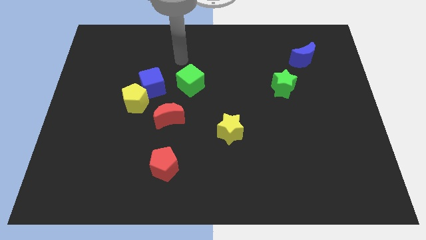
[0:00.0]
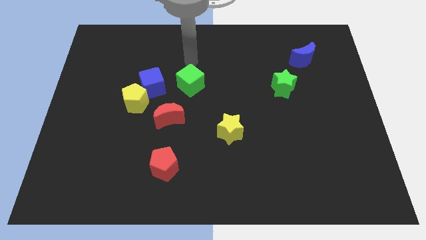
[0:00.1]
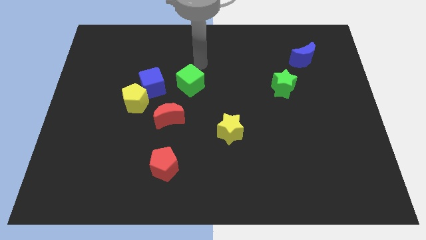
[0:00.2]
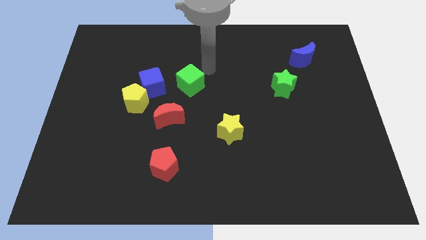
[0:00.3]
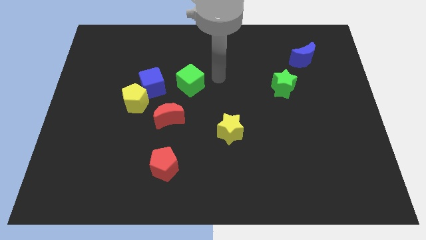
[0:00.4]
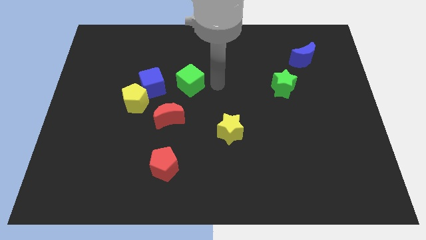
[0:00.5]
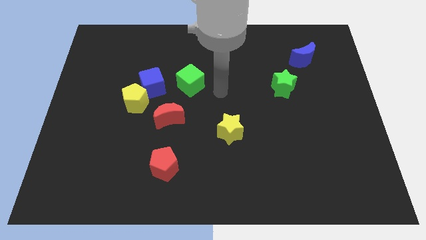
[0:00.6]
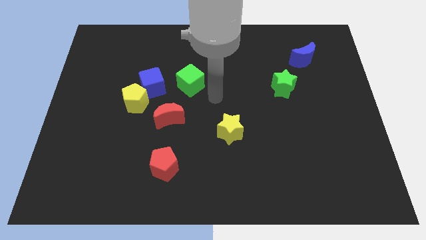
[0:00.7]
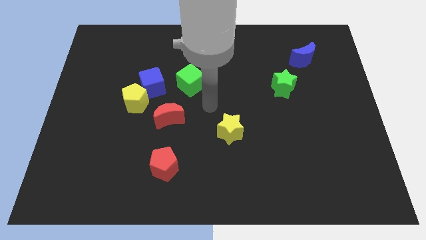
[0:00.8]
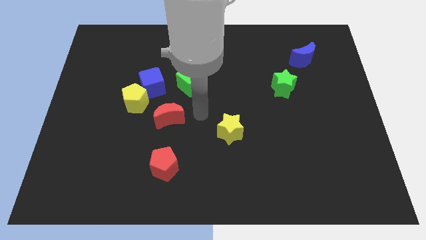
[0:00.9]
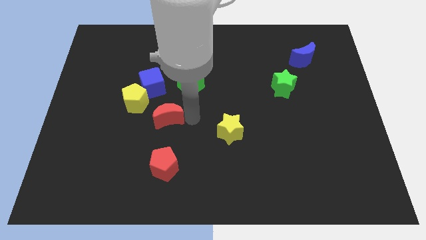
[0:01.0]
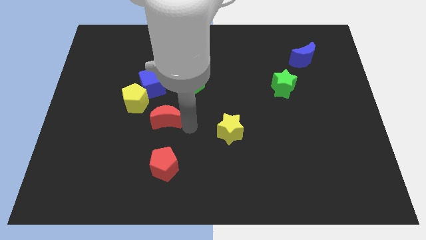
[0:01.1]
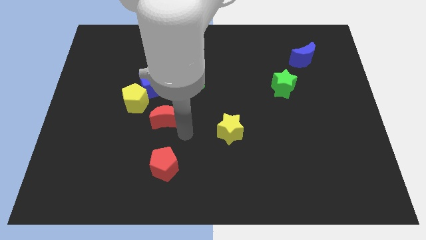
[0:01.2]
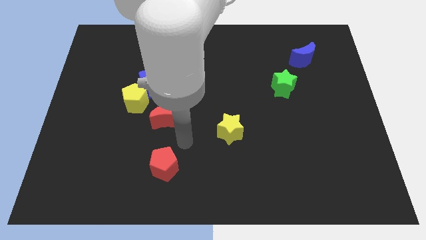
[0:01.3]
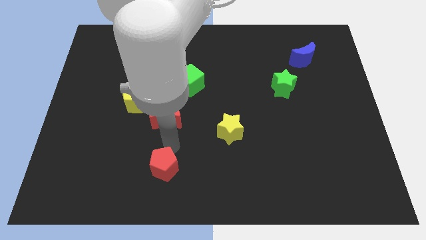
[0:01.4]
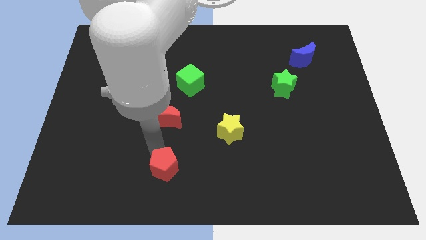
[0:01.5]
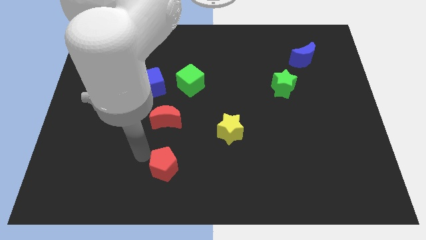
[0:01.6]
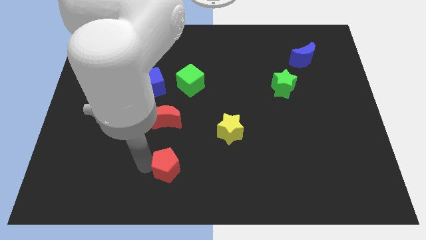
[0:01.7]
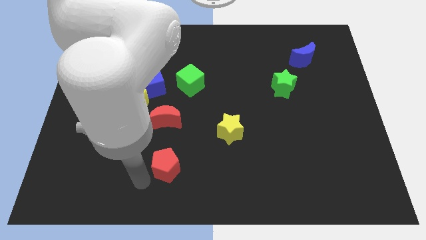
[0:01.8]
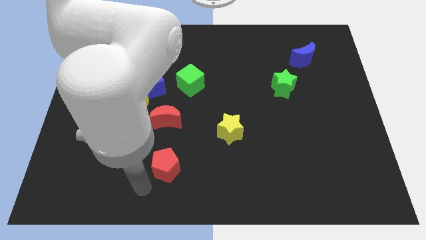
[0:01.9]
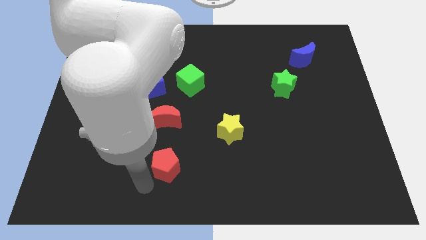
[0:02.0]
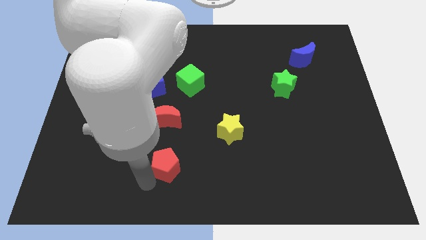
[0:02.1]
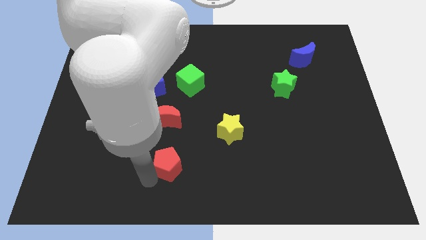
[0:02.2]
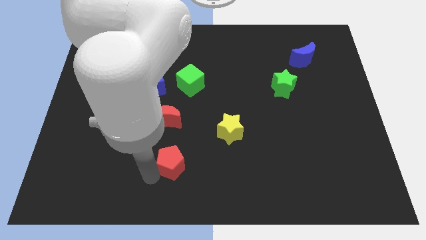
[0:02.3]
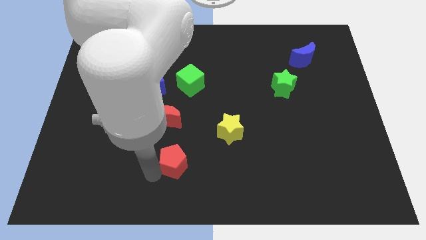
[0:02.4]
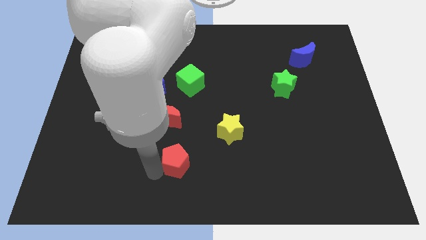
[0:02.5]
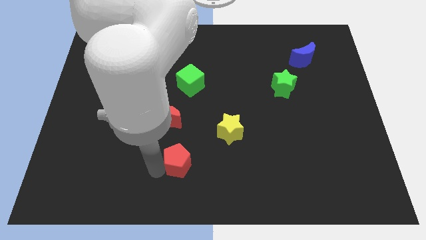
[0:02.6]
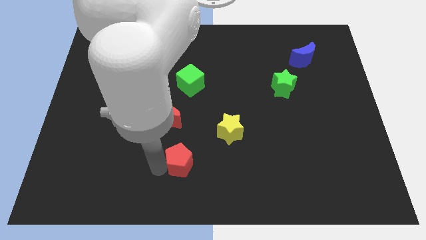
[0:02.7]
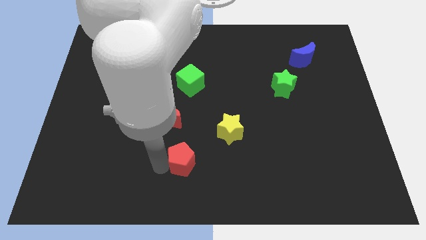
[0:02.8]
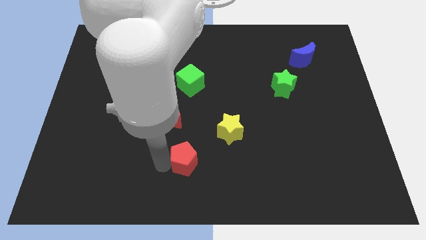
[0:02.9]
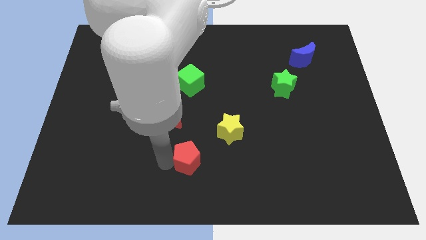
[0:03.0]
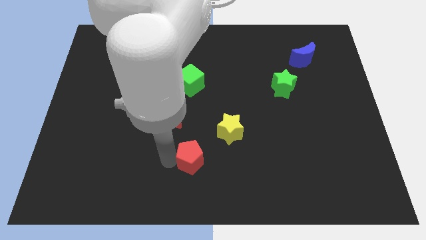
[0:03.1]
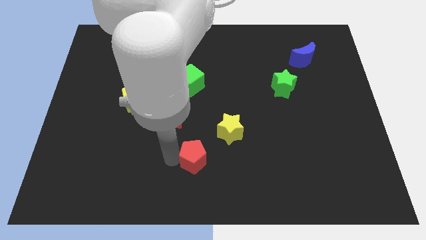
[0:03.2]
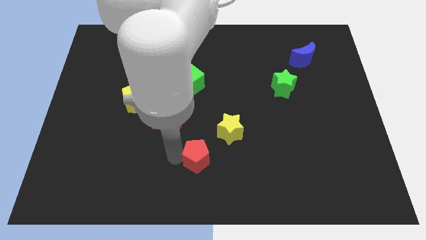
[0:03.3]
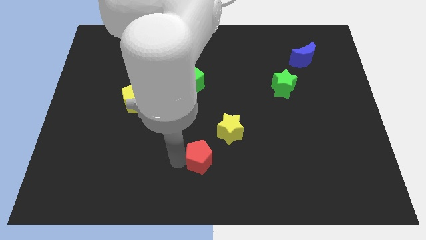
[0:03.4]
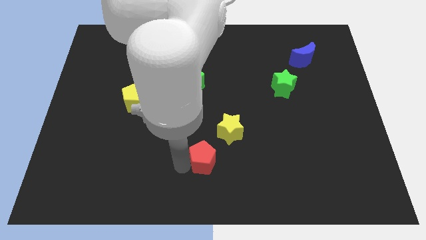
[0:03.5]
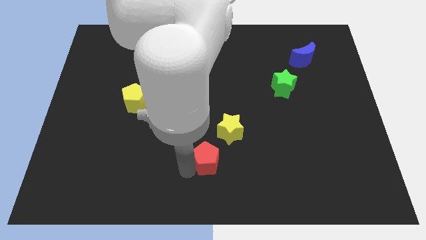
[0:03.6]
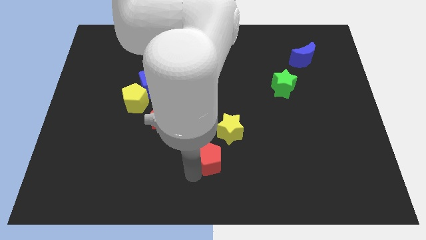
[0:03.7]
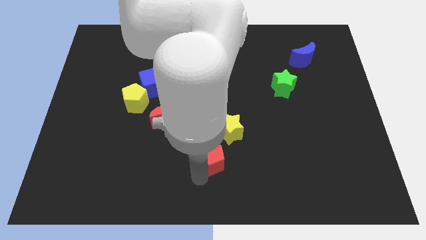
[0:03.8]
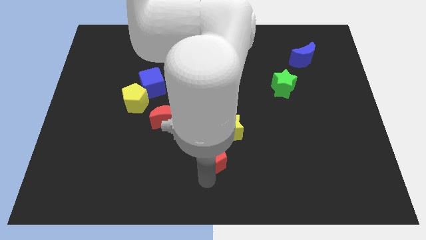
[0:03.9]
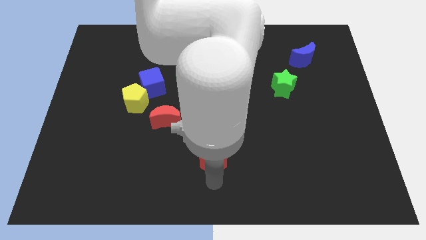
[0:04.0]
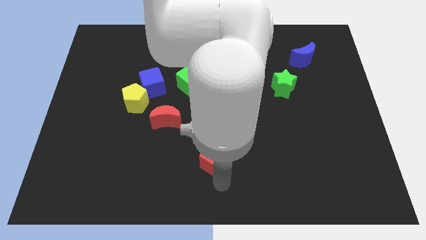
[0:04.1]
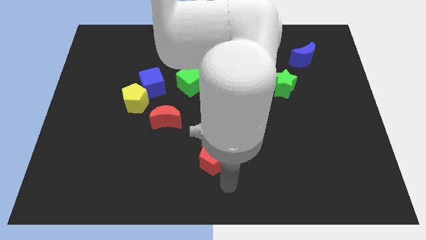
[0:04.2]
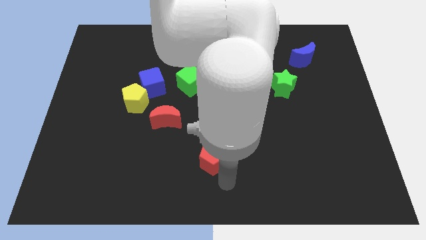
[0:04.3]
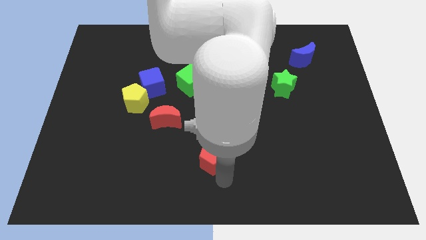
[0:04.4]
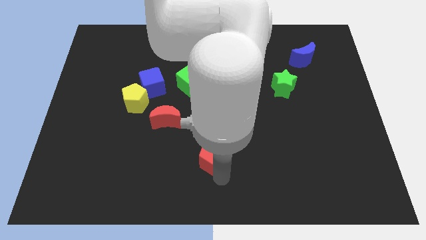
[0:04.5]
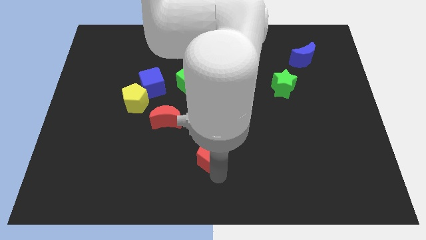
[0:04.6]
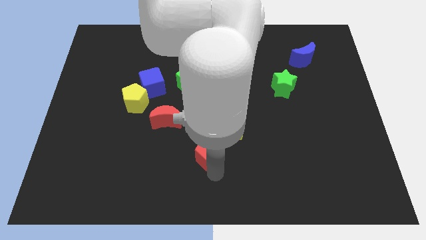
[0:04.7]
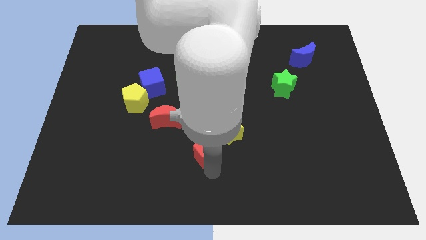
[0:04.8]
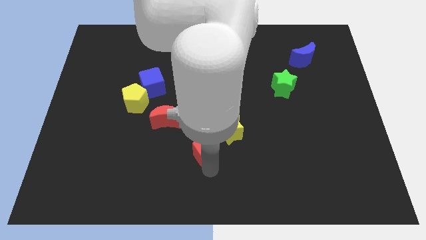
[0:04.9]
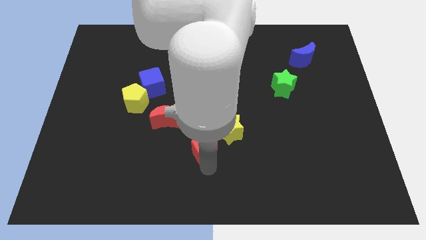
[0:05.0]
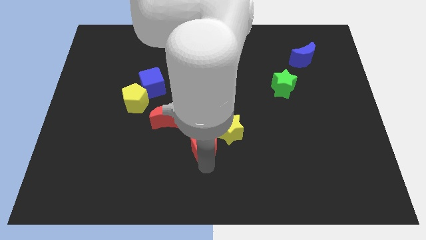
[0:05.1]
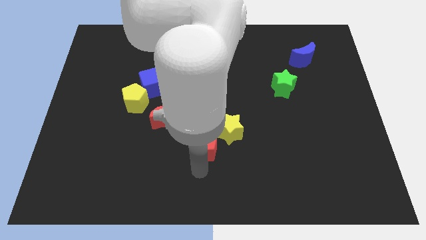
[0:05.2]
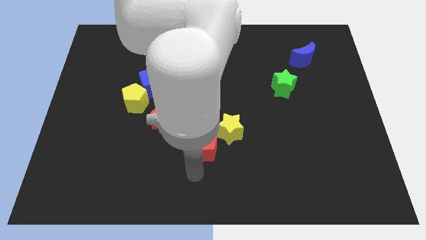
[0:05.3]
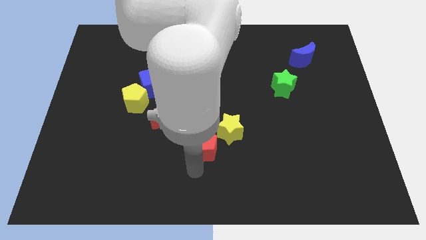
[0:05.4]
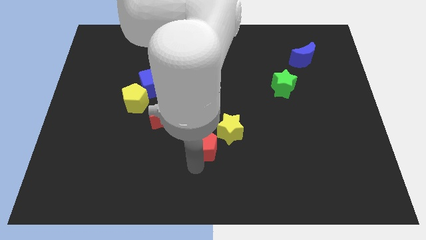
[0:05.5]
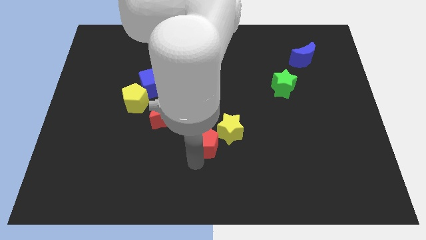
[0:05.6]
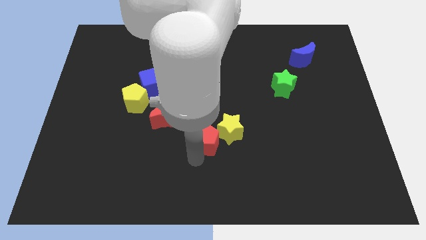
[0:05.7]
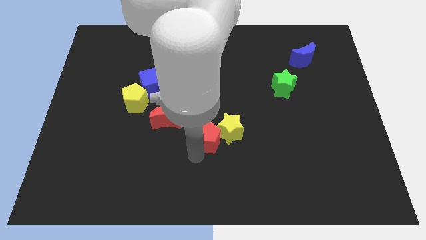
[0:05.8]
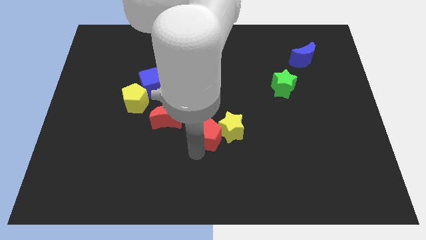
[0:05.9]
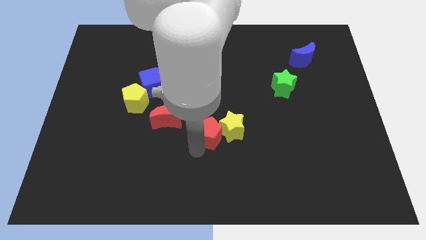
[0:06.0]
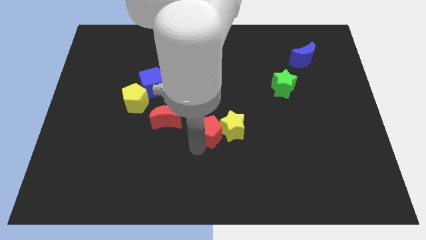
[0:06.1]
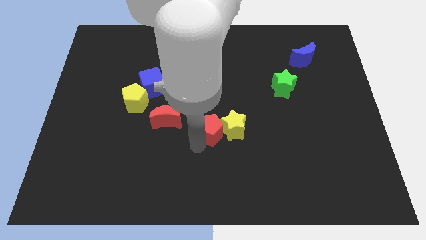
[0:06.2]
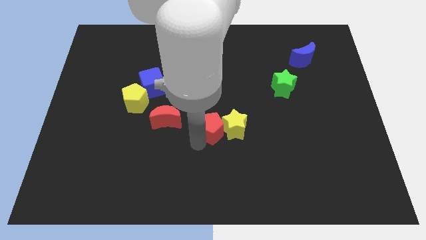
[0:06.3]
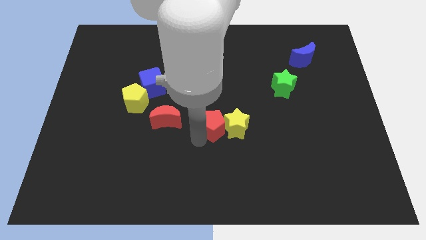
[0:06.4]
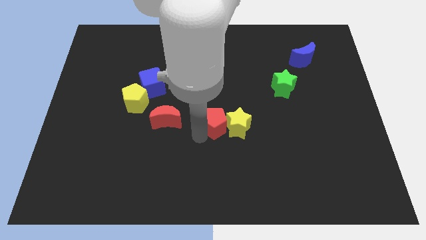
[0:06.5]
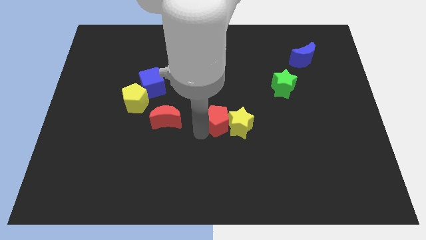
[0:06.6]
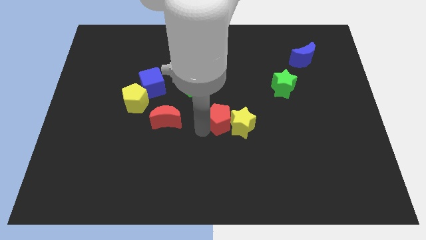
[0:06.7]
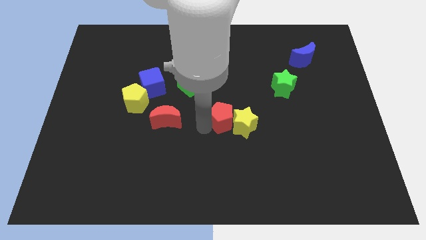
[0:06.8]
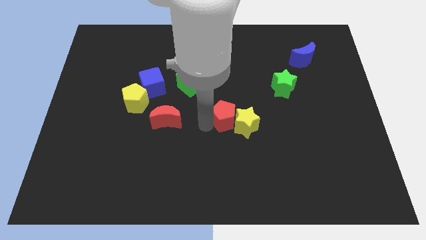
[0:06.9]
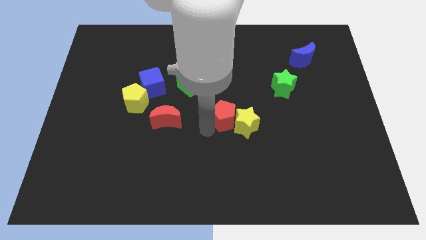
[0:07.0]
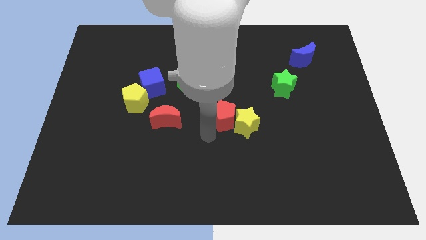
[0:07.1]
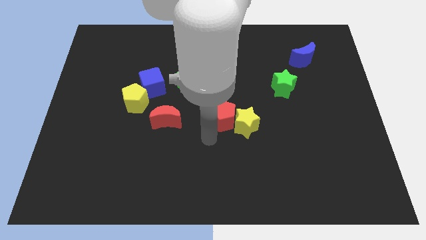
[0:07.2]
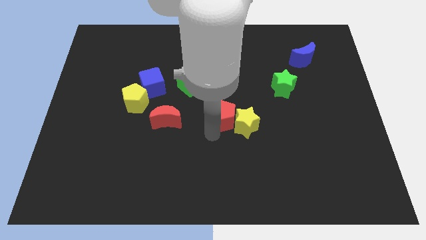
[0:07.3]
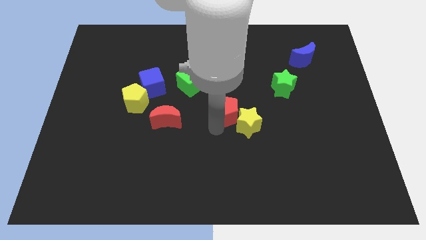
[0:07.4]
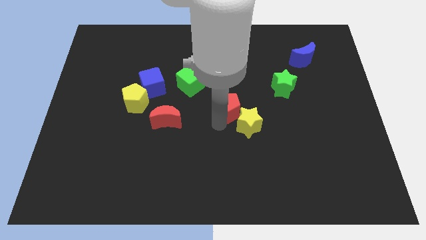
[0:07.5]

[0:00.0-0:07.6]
move the red pentagon up and then right

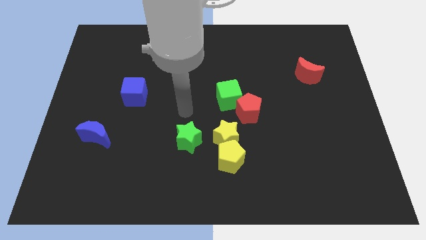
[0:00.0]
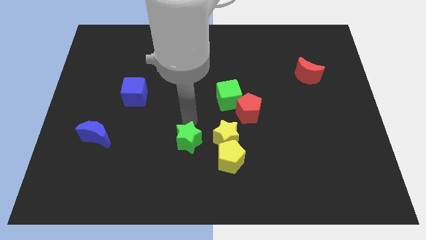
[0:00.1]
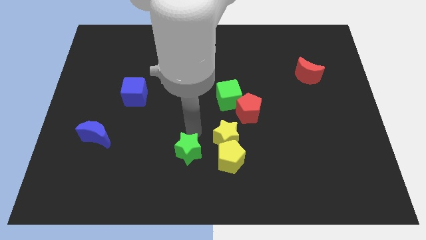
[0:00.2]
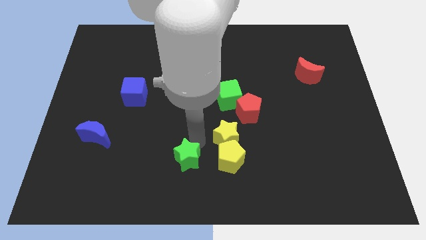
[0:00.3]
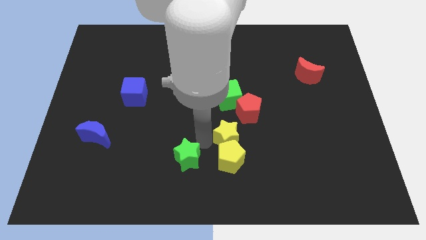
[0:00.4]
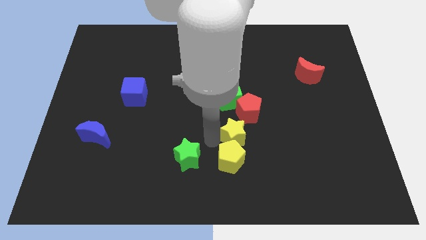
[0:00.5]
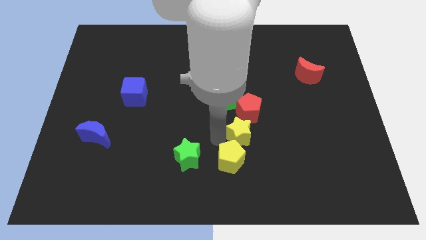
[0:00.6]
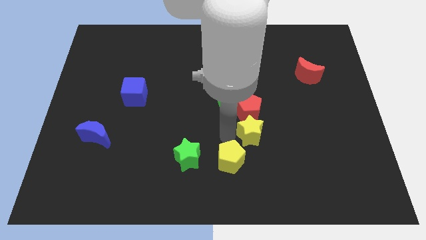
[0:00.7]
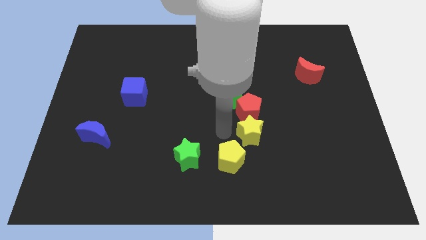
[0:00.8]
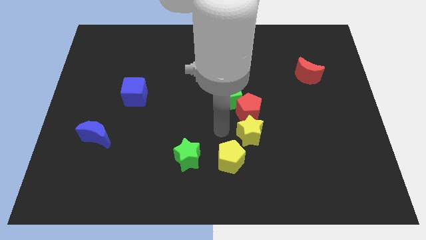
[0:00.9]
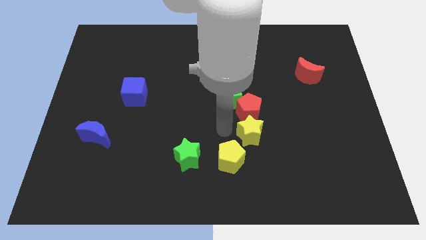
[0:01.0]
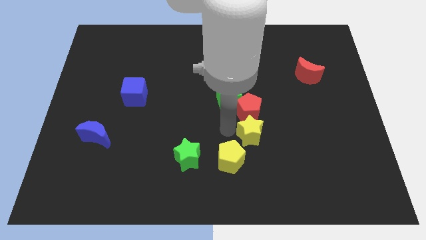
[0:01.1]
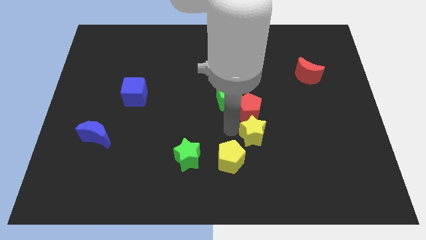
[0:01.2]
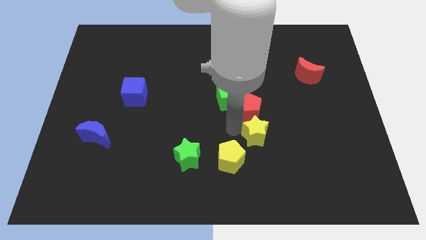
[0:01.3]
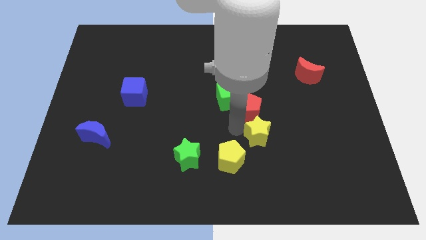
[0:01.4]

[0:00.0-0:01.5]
slightly push the yellow star to the right
